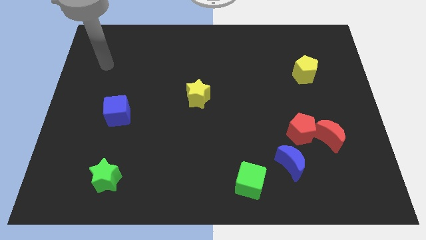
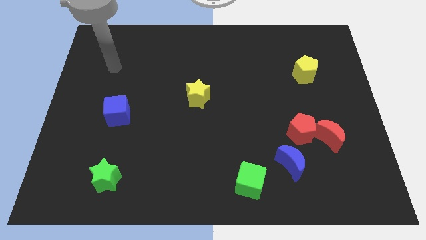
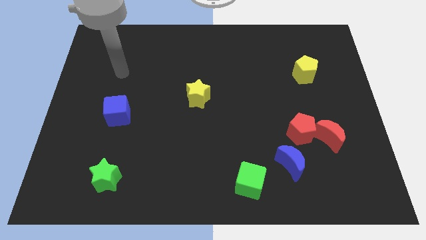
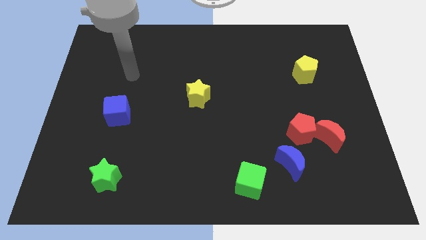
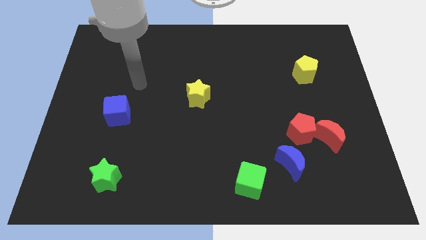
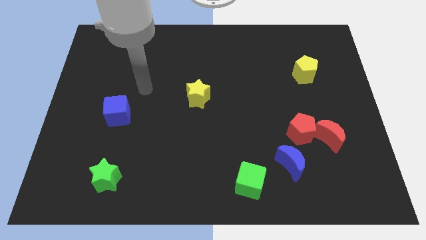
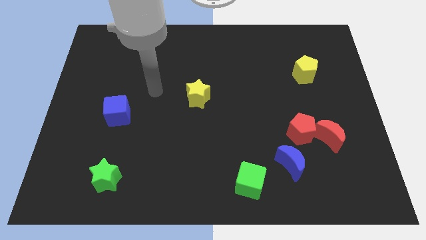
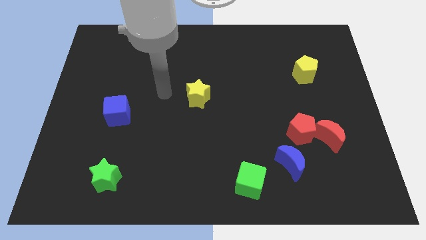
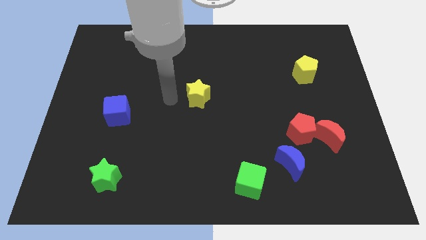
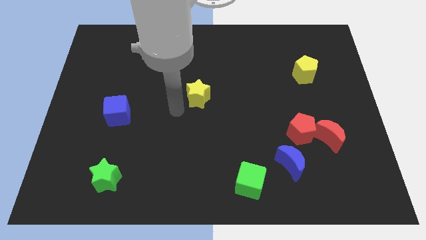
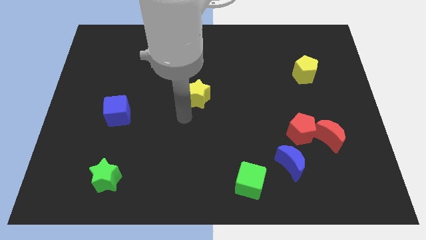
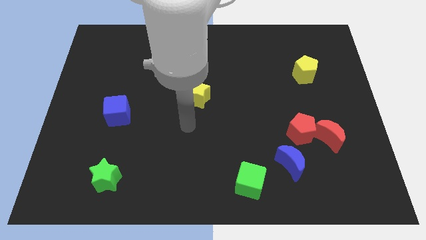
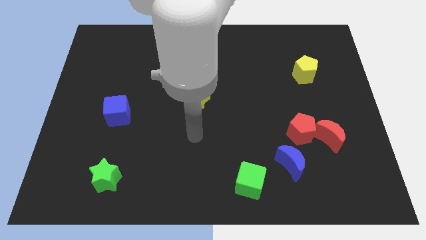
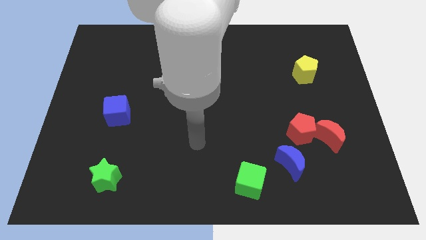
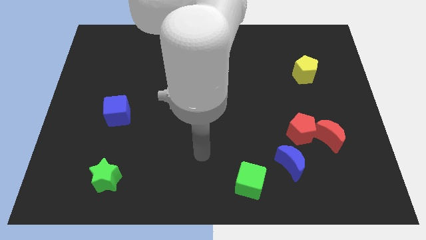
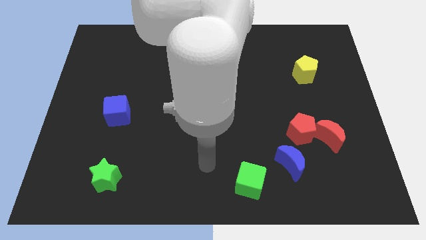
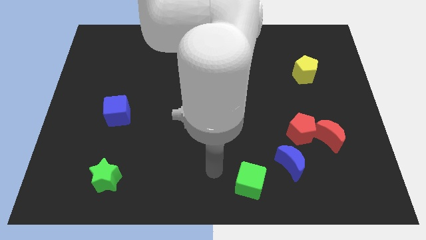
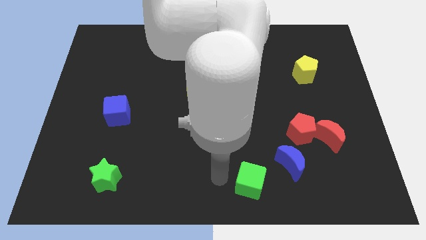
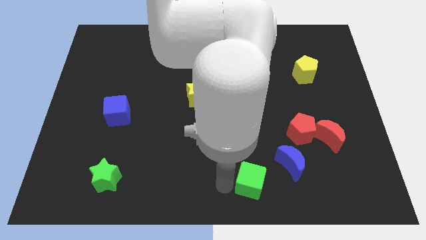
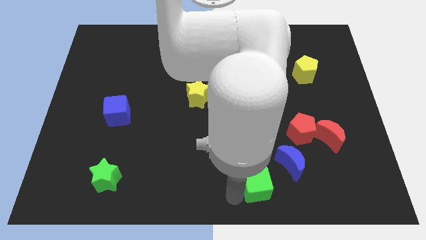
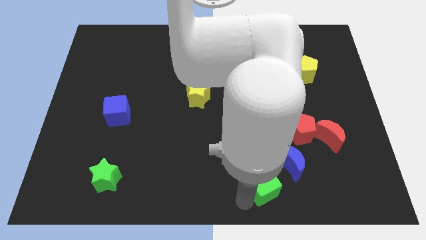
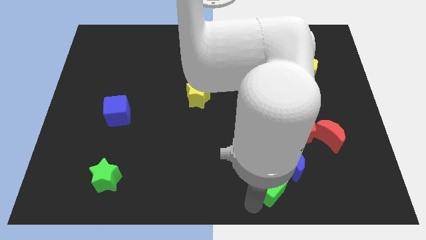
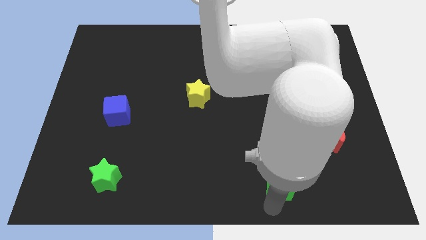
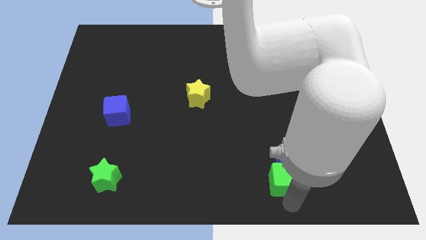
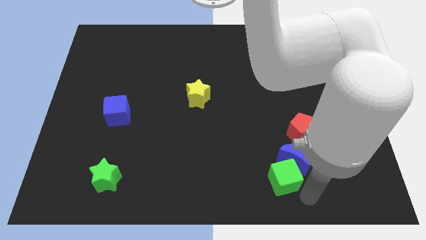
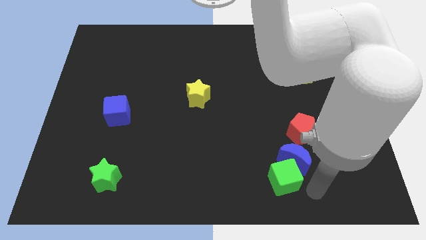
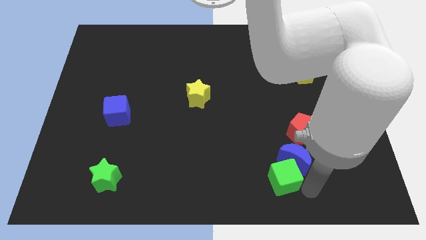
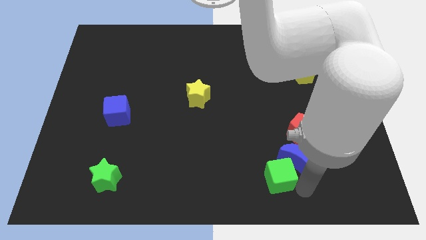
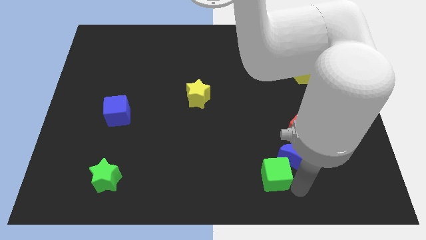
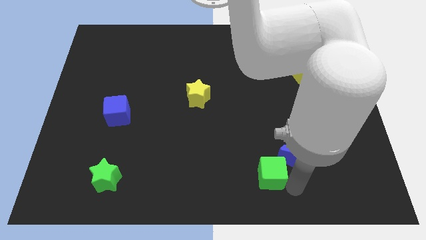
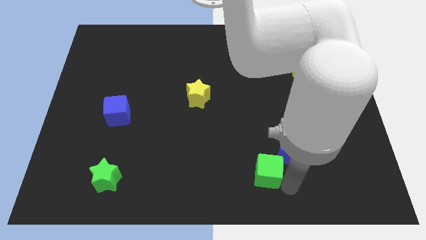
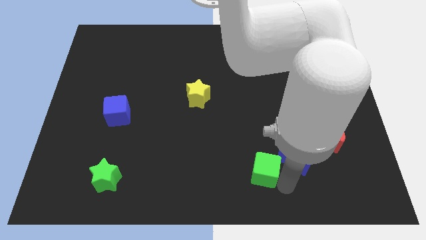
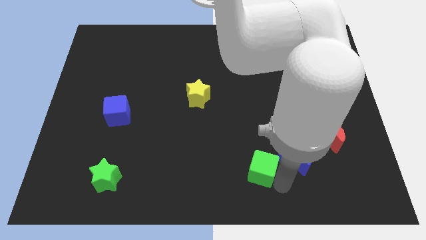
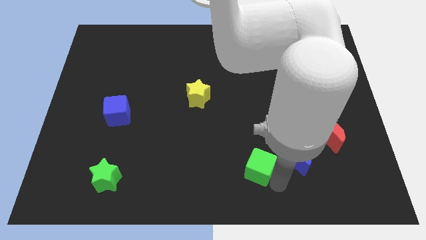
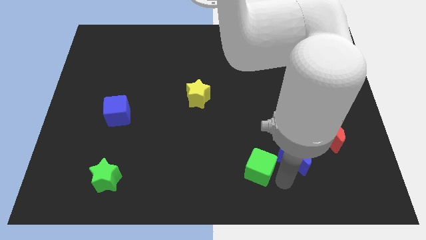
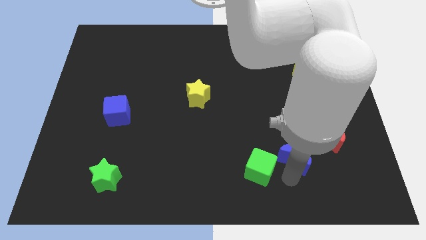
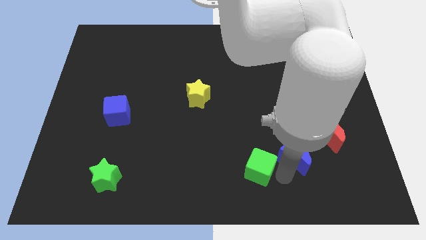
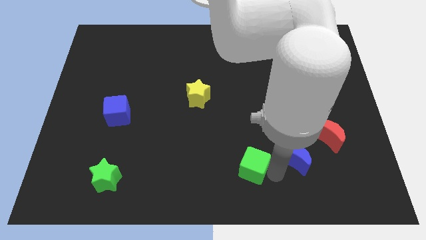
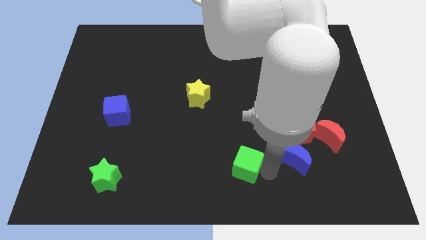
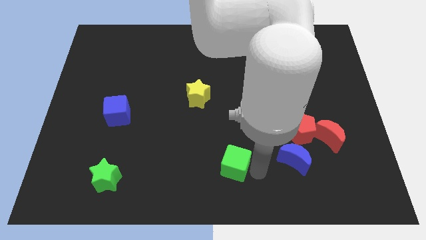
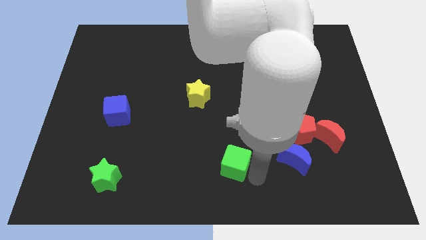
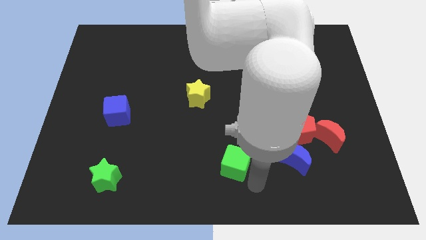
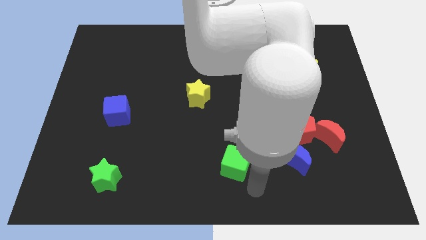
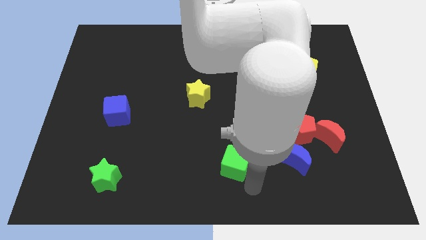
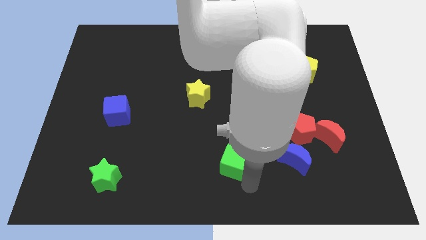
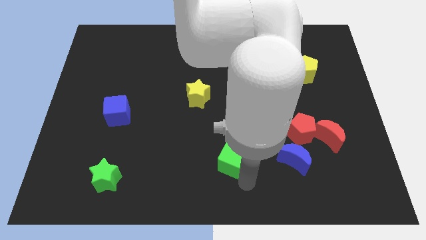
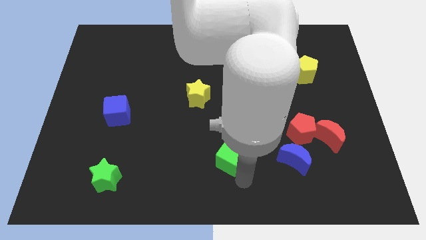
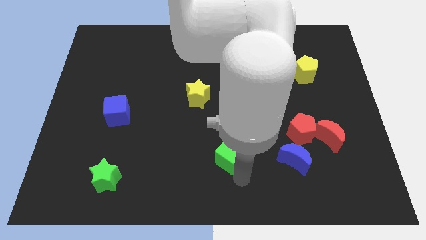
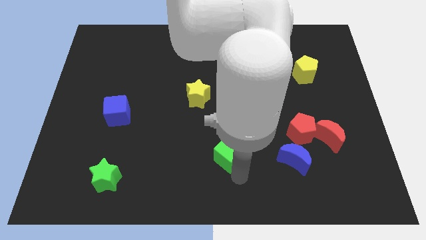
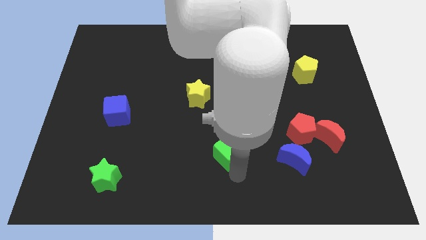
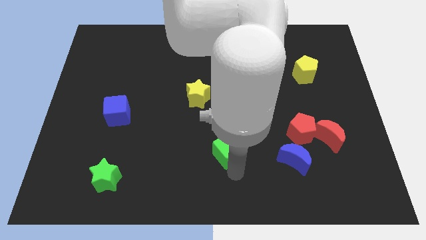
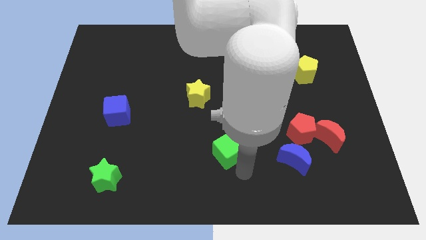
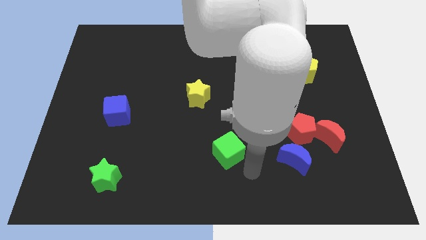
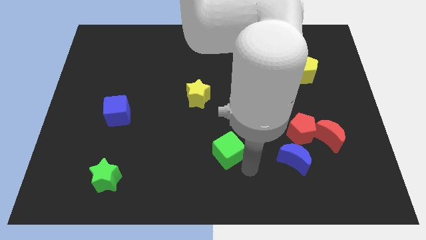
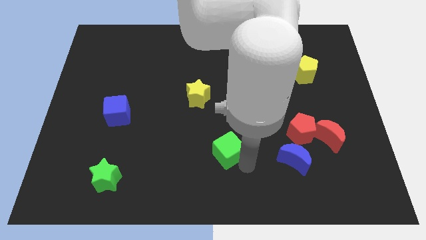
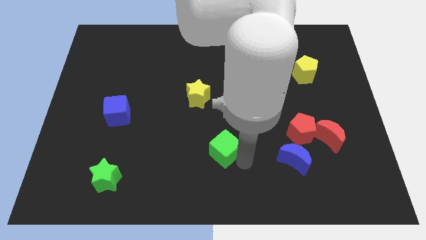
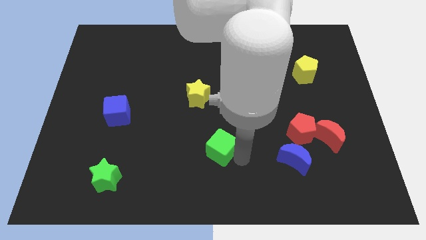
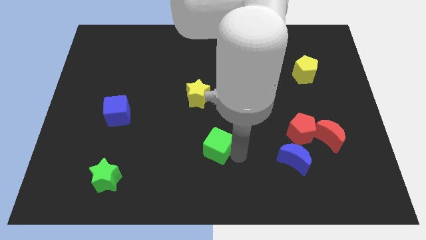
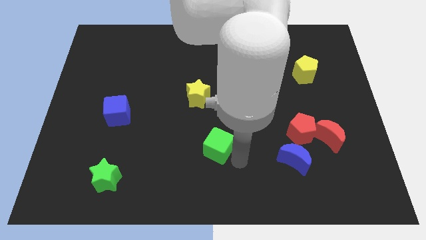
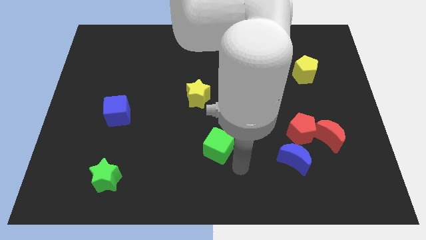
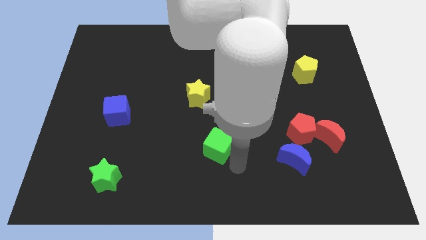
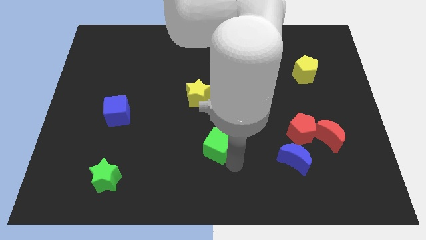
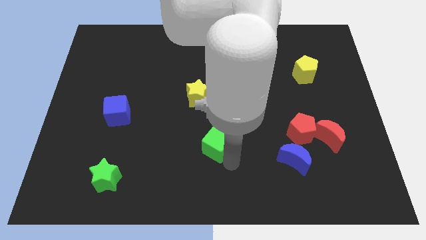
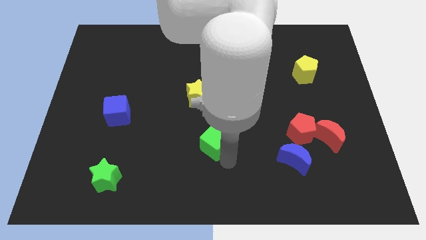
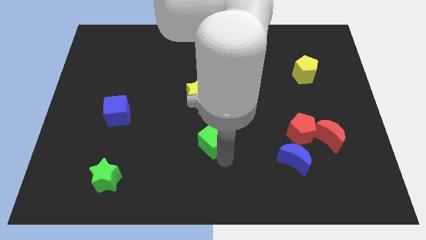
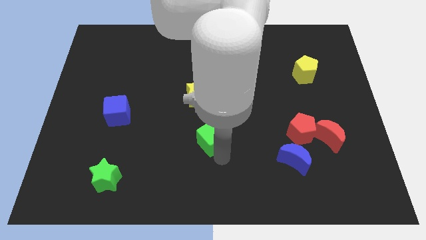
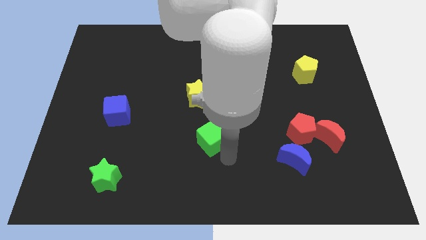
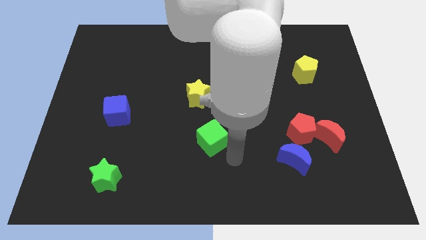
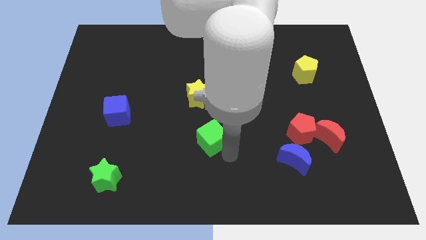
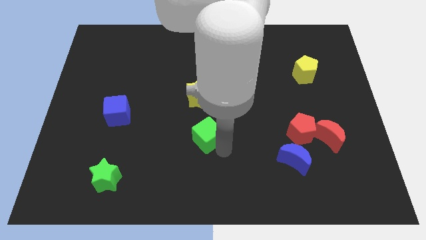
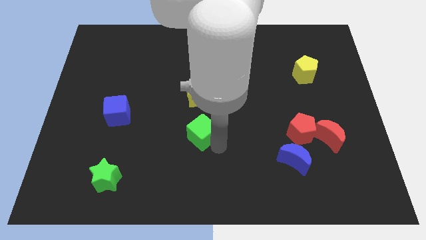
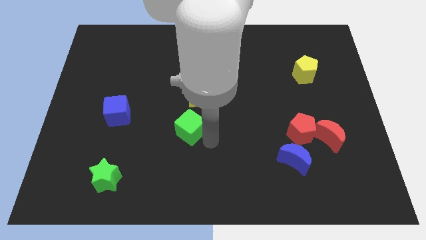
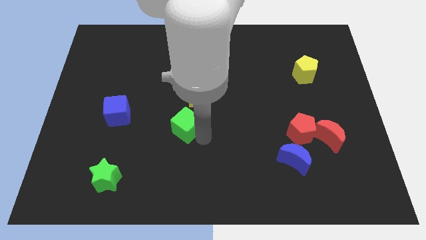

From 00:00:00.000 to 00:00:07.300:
move the green cube to the bottom left of the yellow star

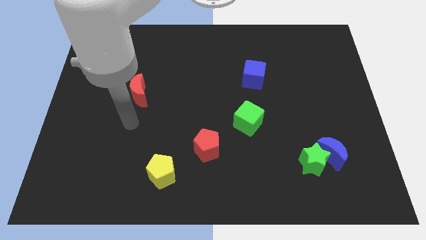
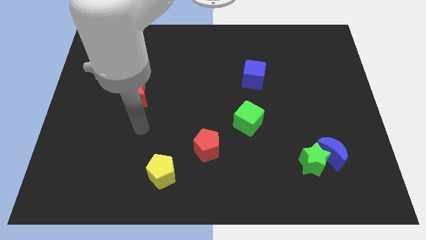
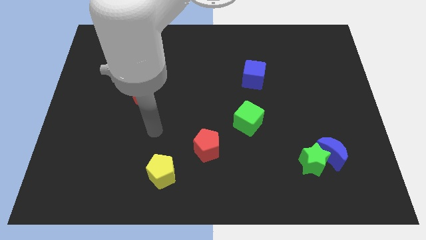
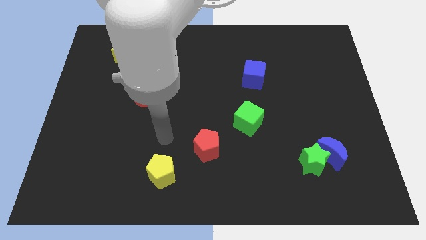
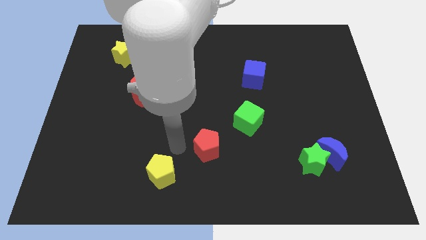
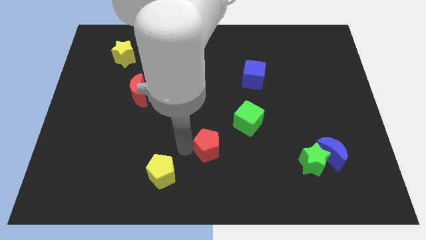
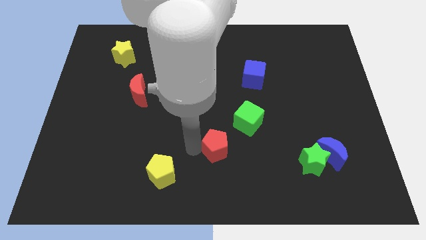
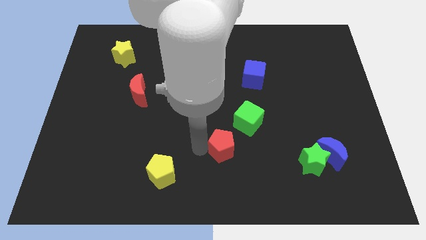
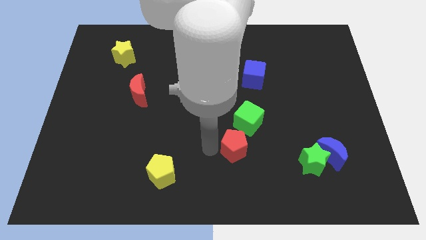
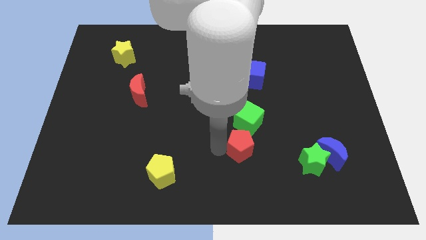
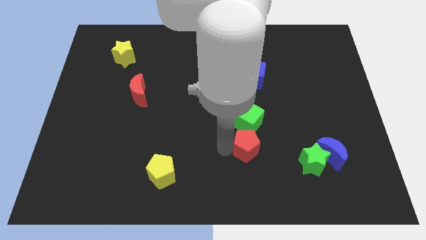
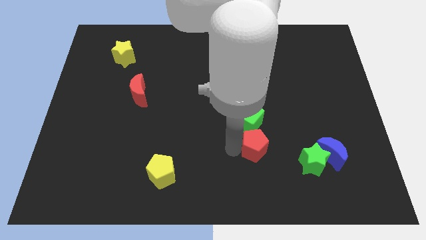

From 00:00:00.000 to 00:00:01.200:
slide the red pentagon diagonally down and to the right of the green cube
